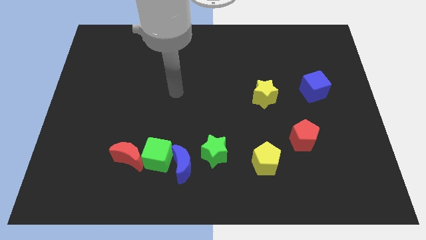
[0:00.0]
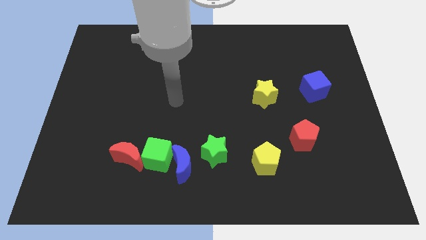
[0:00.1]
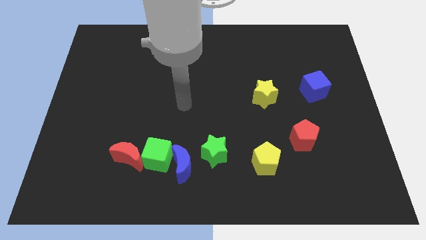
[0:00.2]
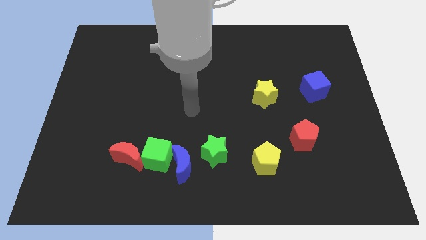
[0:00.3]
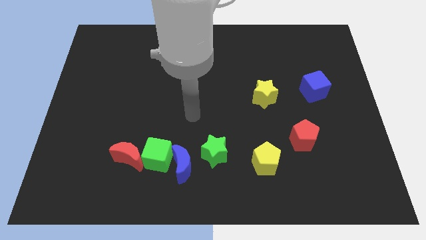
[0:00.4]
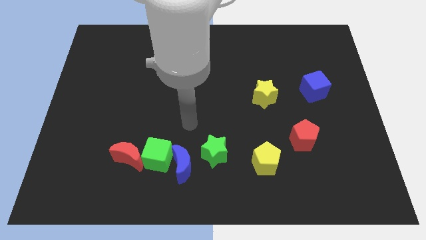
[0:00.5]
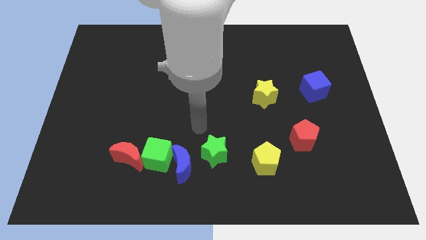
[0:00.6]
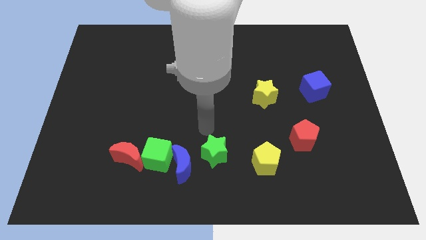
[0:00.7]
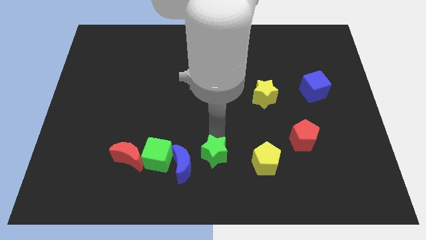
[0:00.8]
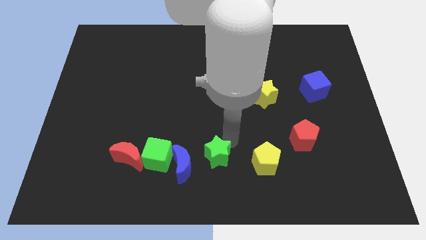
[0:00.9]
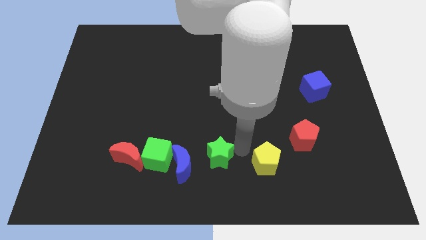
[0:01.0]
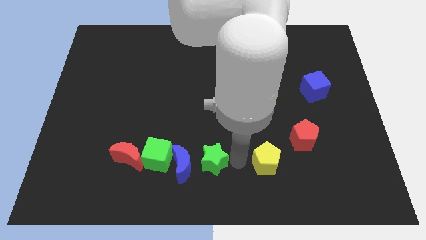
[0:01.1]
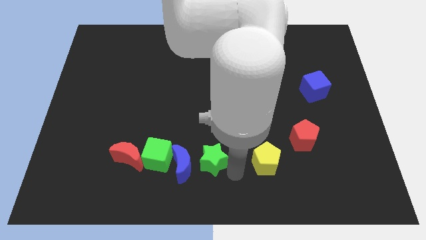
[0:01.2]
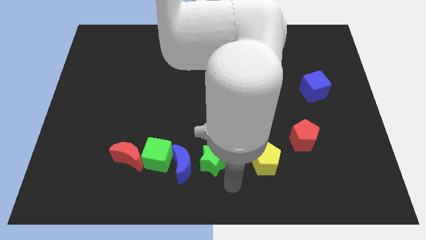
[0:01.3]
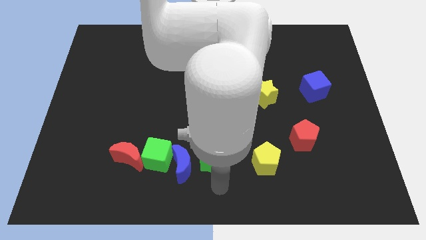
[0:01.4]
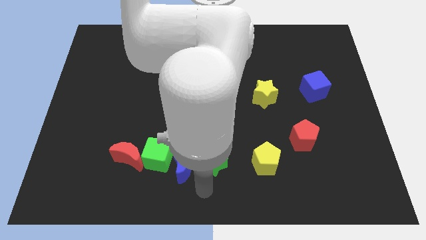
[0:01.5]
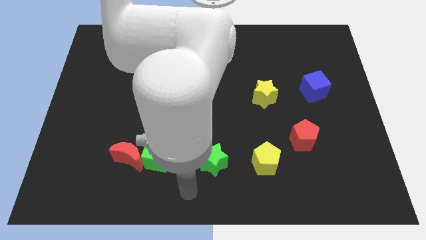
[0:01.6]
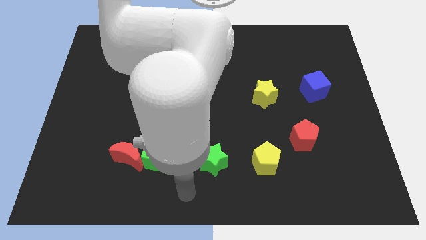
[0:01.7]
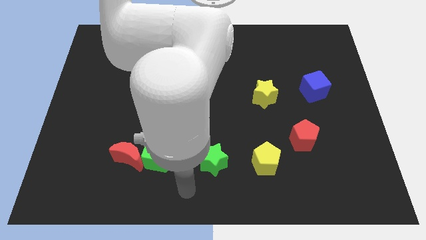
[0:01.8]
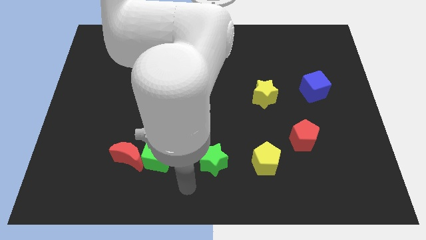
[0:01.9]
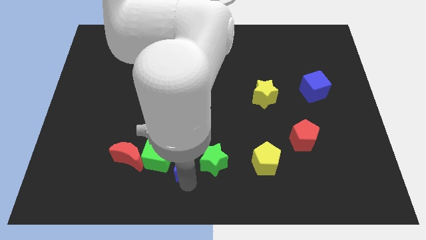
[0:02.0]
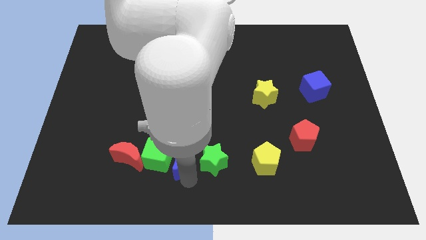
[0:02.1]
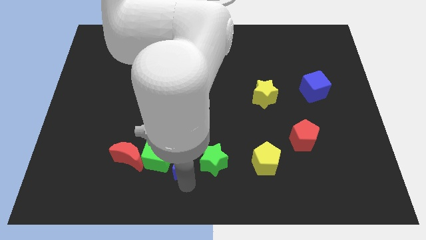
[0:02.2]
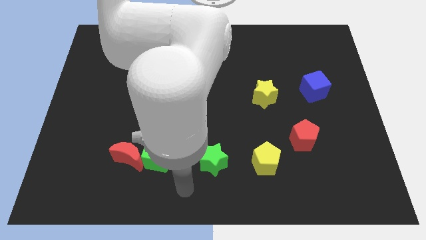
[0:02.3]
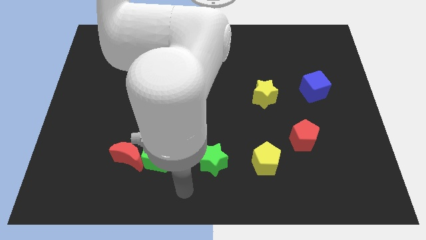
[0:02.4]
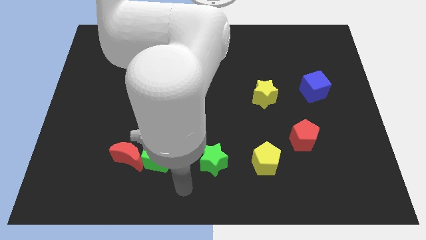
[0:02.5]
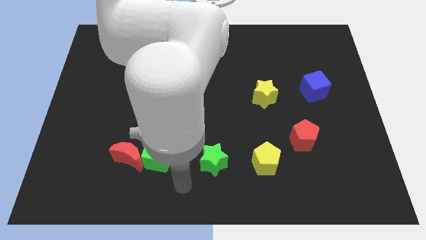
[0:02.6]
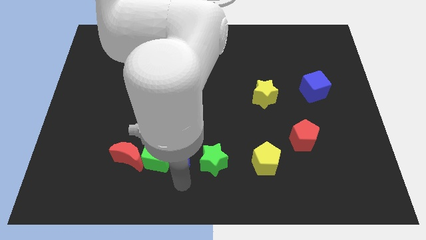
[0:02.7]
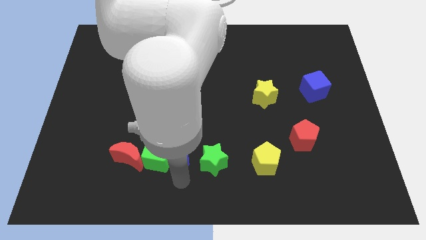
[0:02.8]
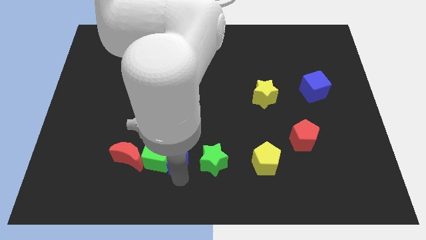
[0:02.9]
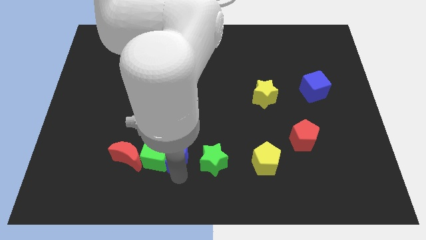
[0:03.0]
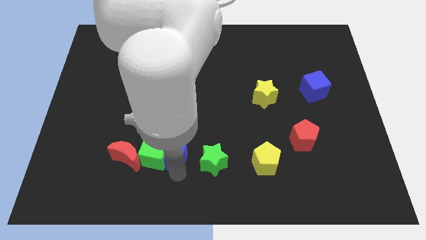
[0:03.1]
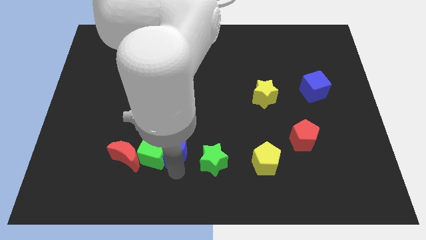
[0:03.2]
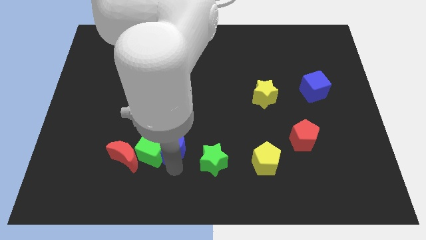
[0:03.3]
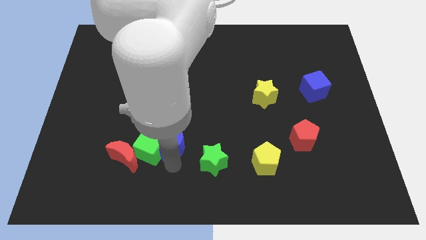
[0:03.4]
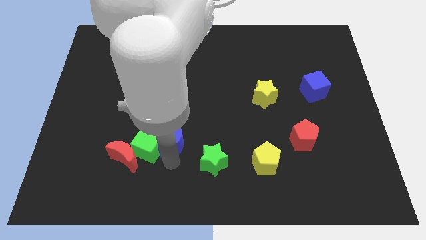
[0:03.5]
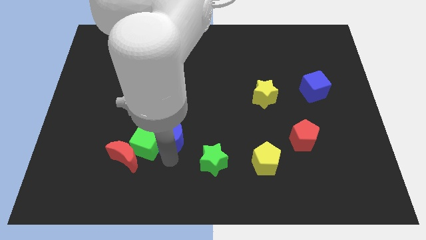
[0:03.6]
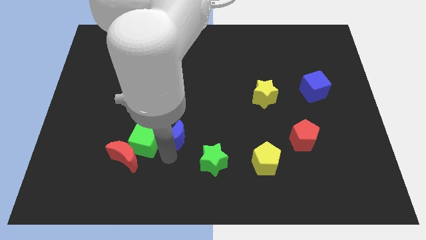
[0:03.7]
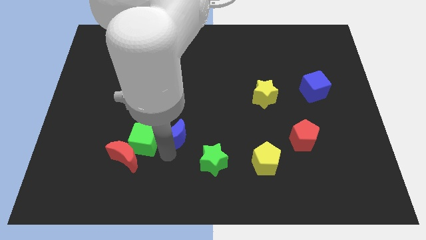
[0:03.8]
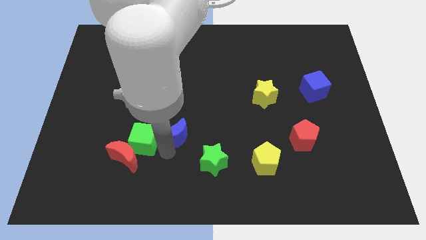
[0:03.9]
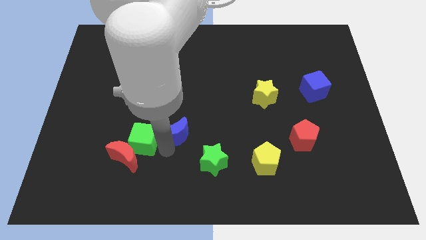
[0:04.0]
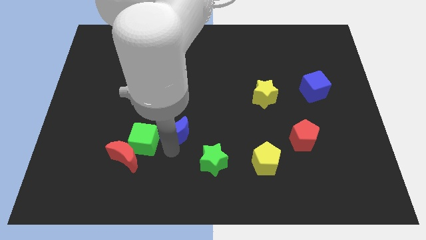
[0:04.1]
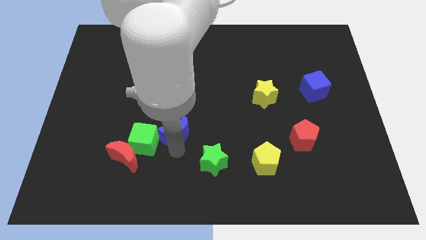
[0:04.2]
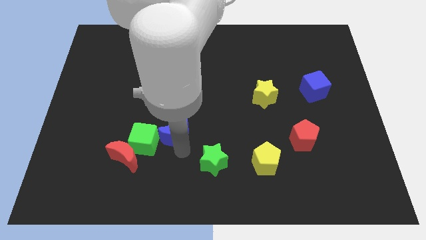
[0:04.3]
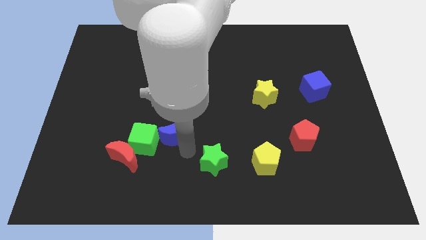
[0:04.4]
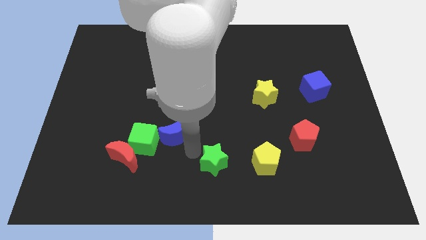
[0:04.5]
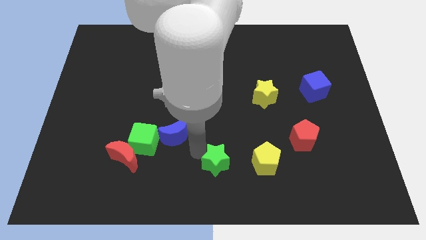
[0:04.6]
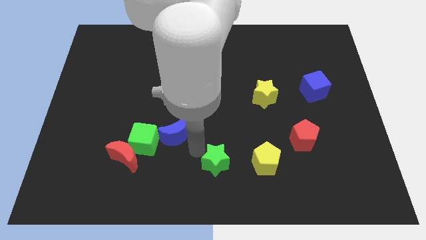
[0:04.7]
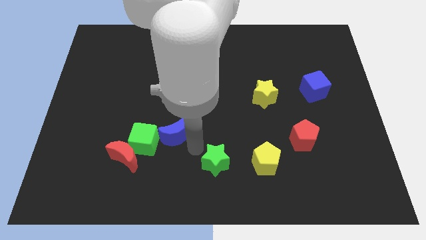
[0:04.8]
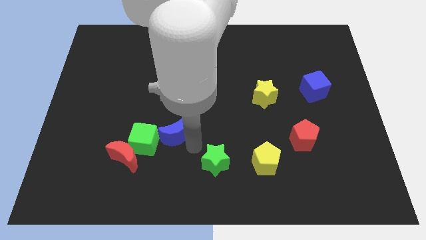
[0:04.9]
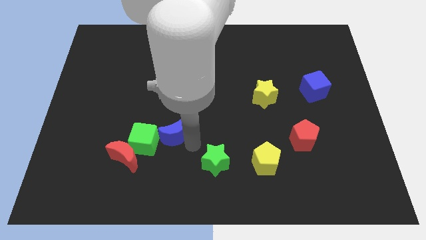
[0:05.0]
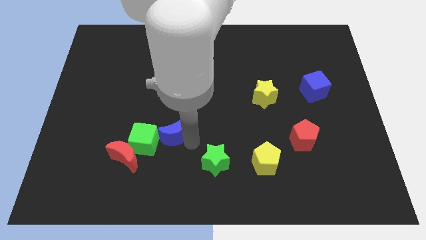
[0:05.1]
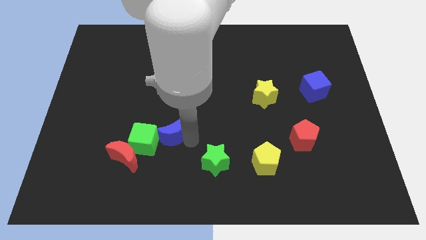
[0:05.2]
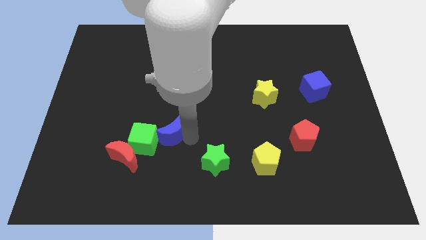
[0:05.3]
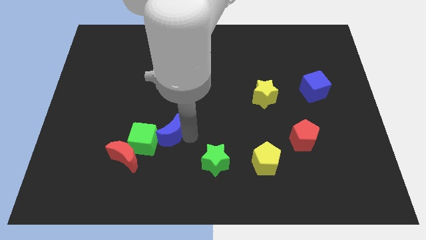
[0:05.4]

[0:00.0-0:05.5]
slightly slide the blue moon up and then to the left

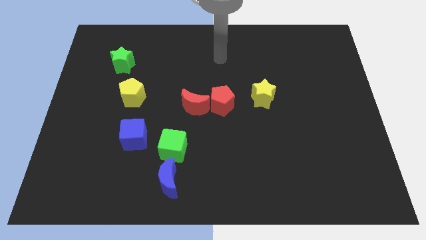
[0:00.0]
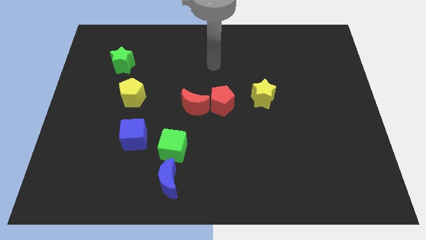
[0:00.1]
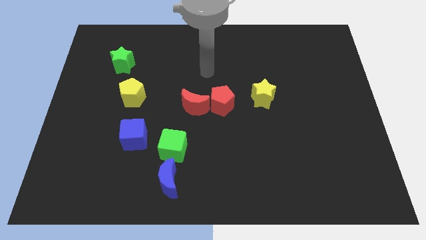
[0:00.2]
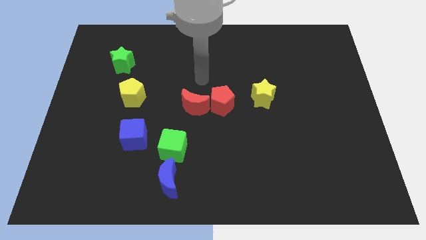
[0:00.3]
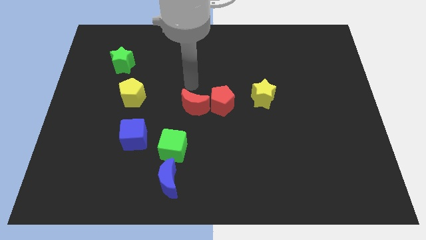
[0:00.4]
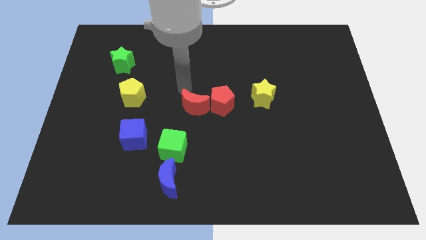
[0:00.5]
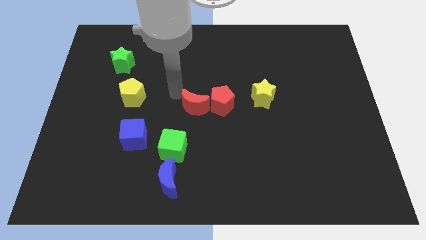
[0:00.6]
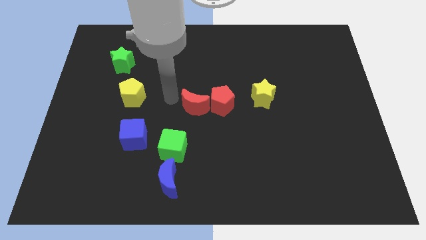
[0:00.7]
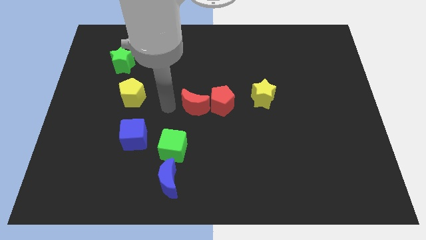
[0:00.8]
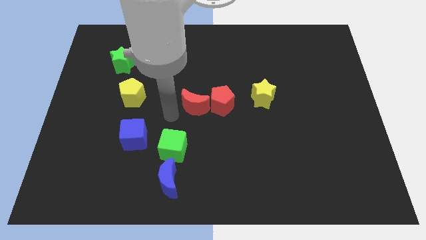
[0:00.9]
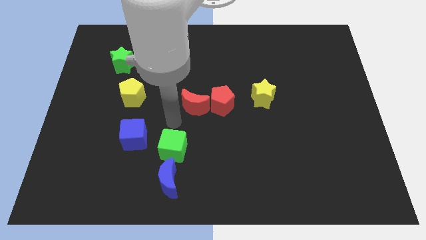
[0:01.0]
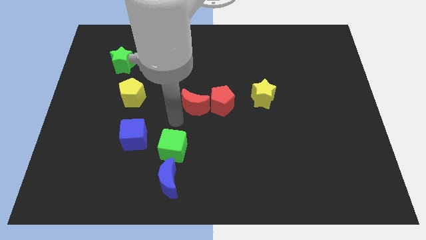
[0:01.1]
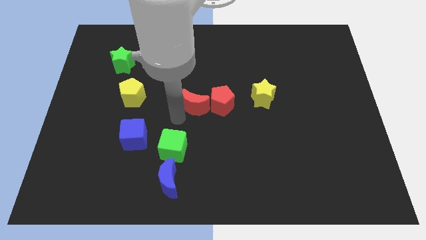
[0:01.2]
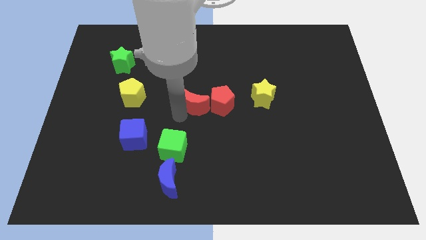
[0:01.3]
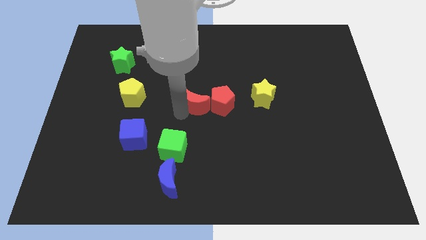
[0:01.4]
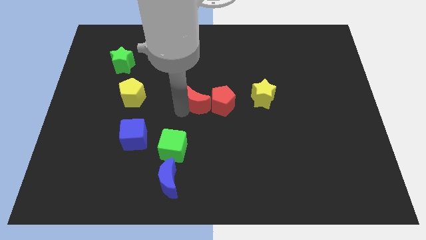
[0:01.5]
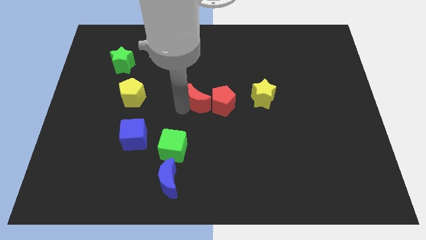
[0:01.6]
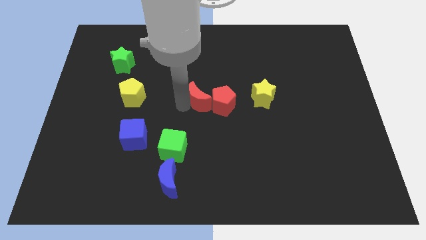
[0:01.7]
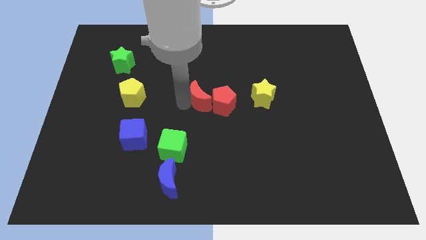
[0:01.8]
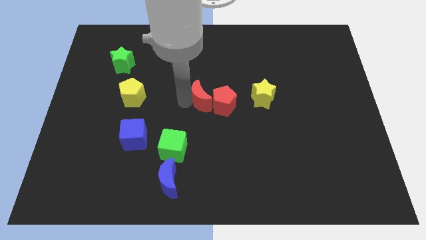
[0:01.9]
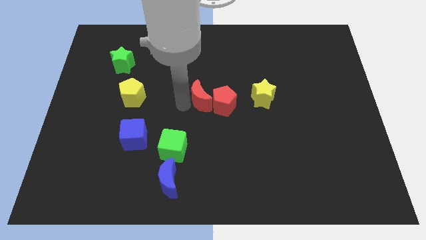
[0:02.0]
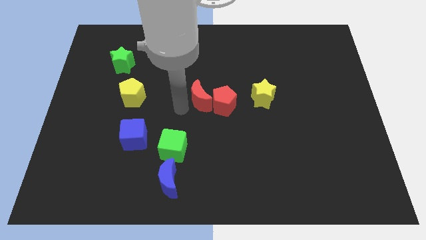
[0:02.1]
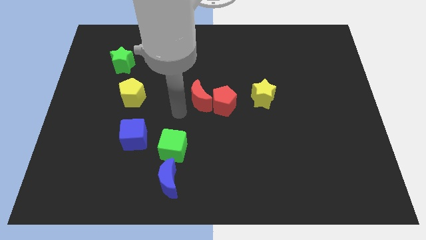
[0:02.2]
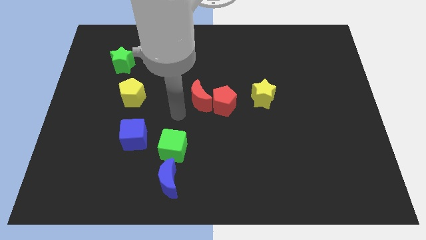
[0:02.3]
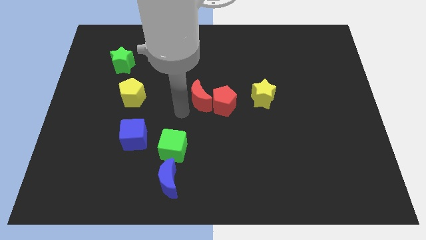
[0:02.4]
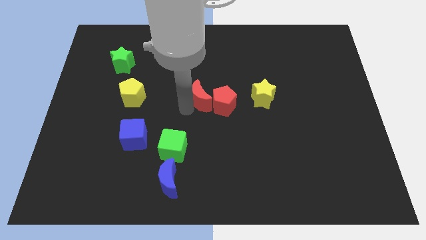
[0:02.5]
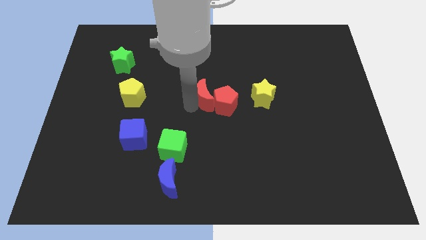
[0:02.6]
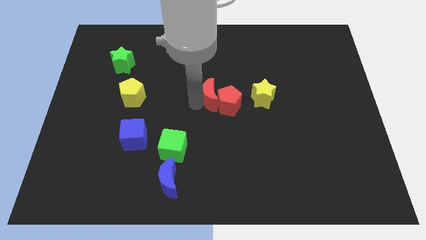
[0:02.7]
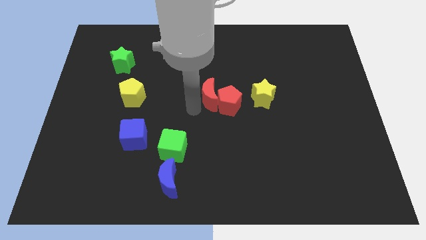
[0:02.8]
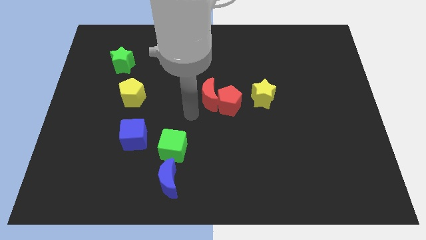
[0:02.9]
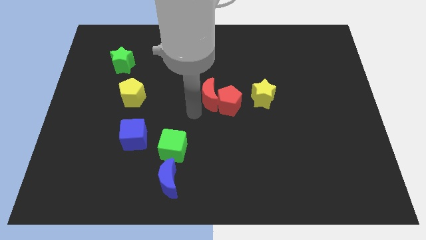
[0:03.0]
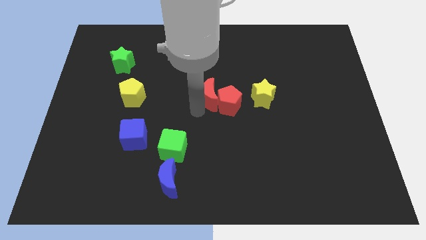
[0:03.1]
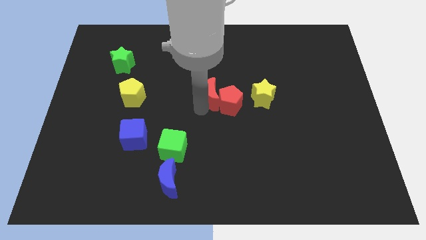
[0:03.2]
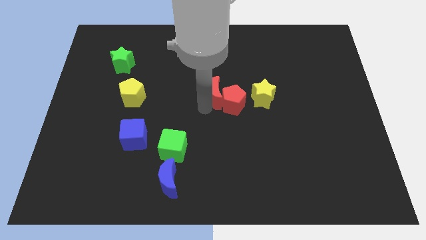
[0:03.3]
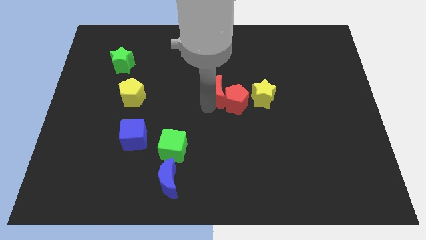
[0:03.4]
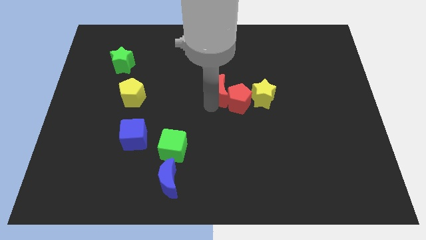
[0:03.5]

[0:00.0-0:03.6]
slide the red moon upwards and then right a little bit
